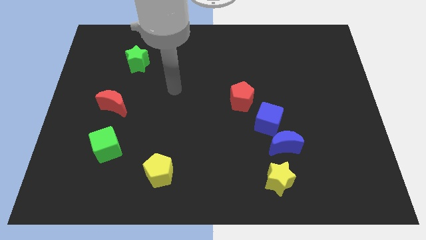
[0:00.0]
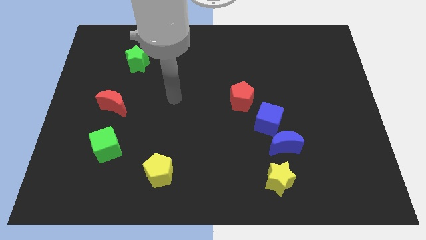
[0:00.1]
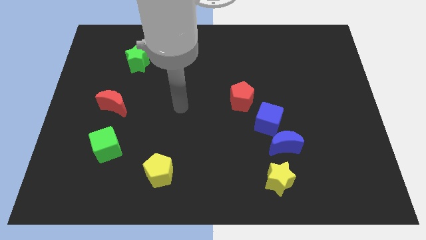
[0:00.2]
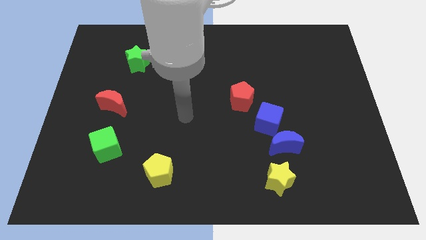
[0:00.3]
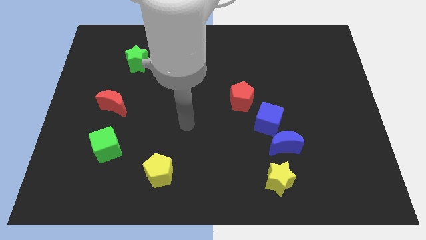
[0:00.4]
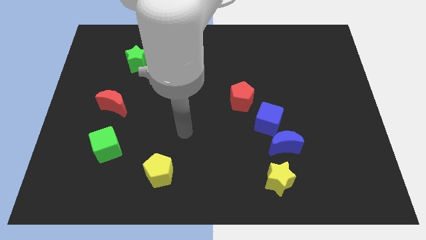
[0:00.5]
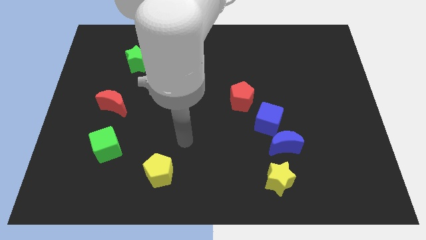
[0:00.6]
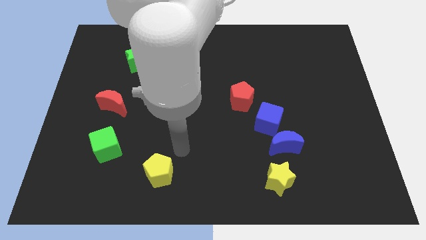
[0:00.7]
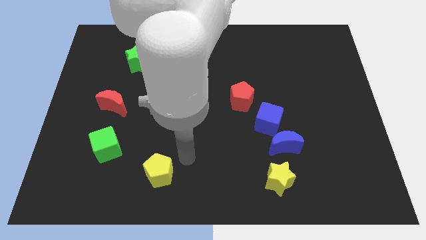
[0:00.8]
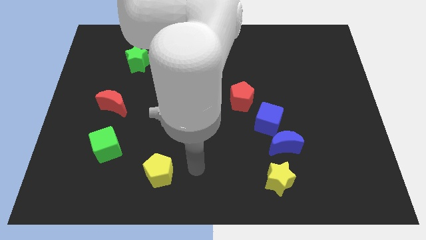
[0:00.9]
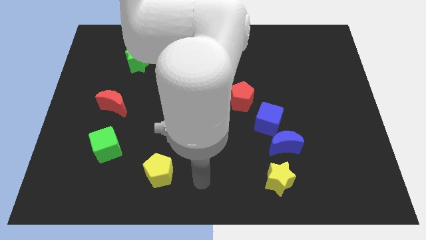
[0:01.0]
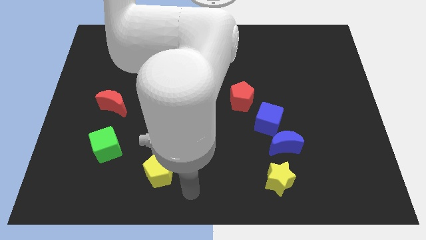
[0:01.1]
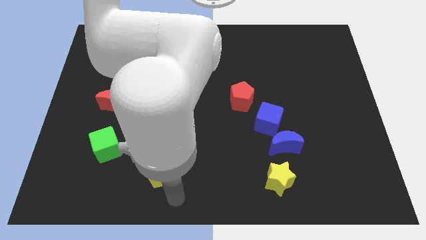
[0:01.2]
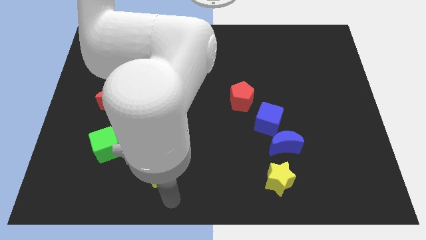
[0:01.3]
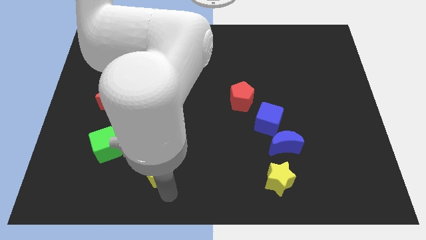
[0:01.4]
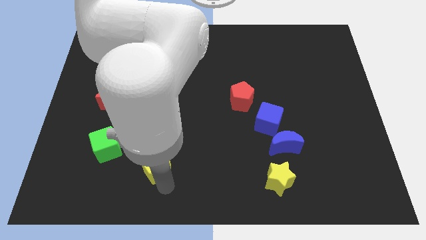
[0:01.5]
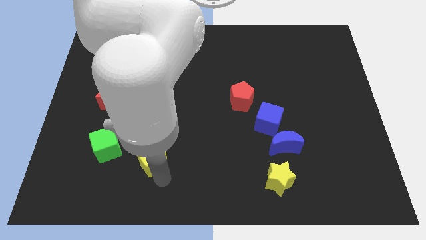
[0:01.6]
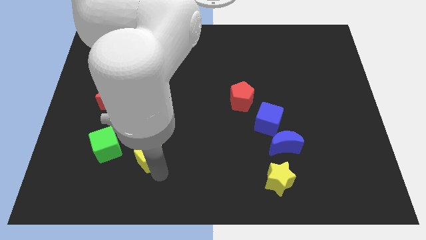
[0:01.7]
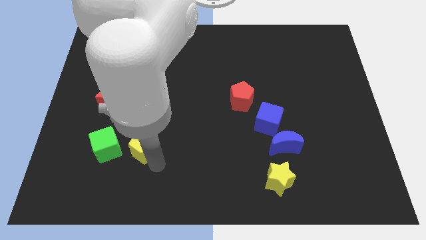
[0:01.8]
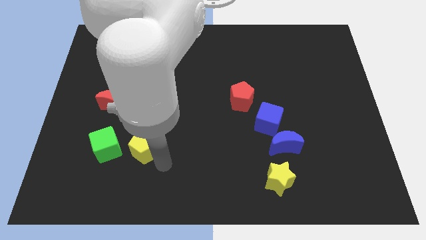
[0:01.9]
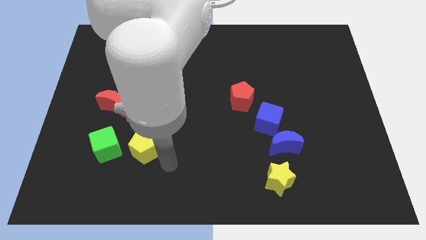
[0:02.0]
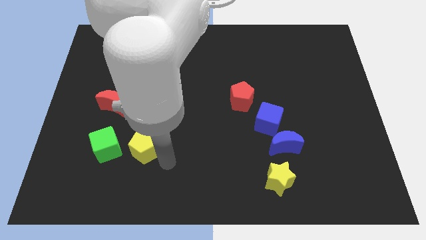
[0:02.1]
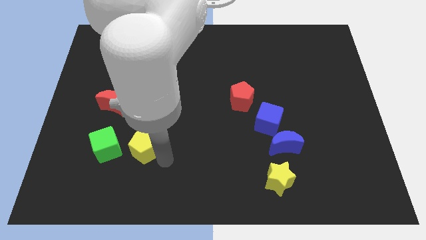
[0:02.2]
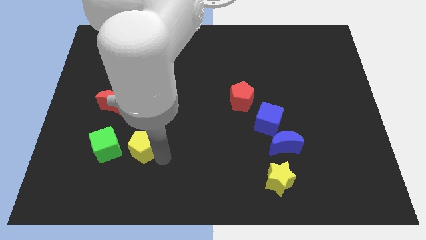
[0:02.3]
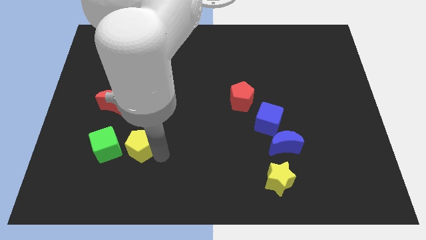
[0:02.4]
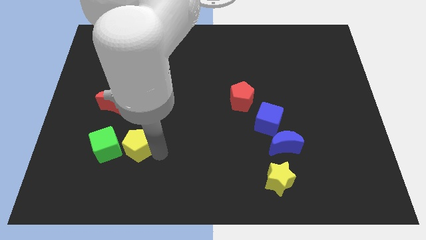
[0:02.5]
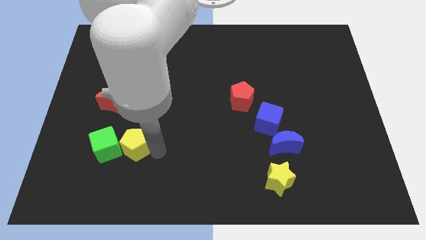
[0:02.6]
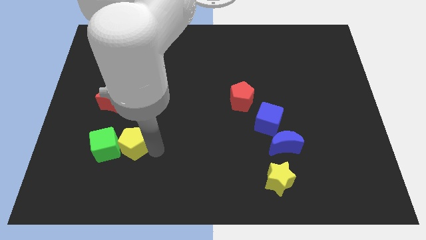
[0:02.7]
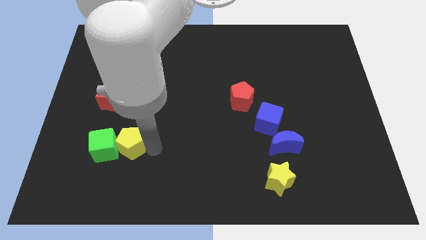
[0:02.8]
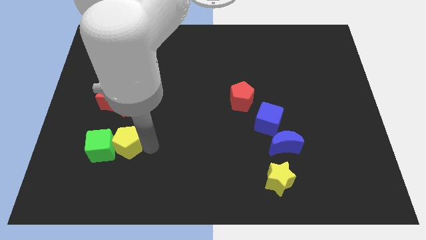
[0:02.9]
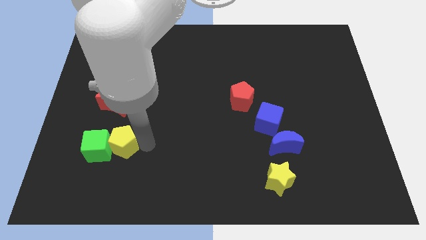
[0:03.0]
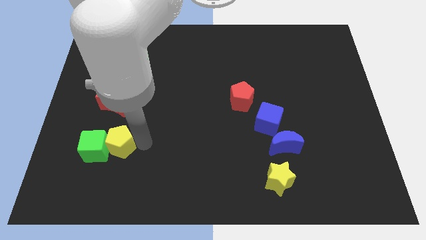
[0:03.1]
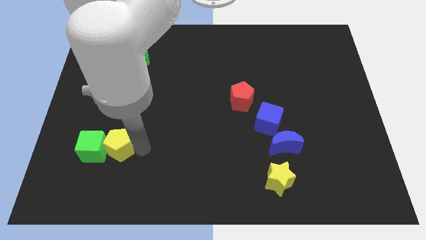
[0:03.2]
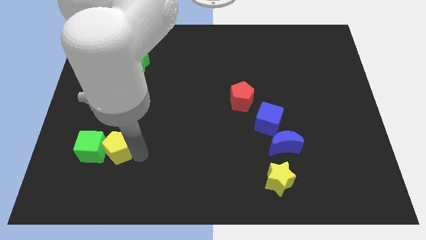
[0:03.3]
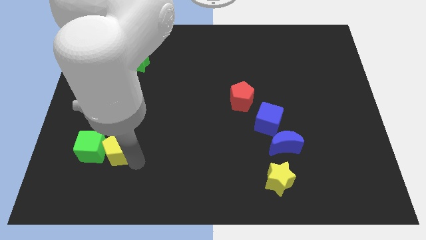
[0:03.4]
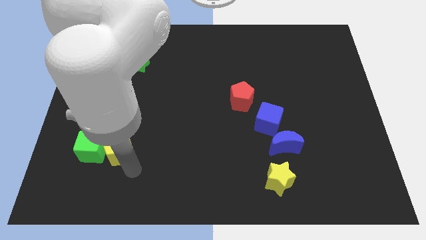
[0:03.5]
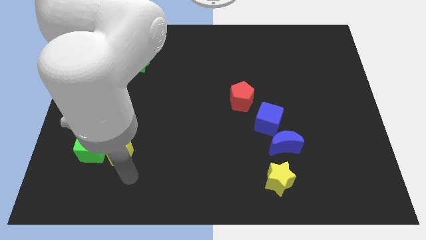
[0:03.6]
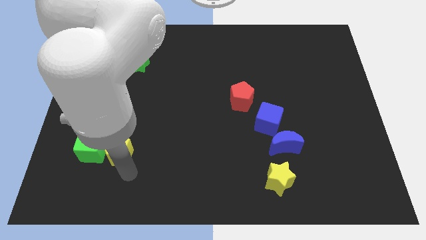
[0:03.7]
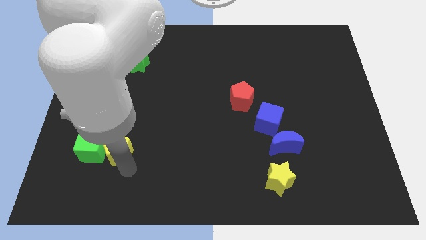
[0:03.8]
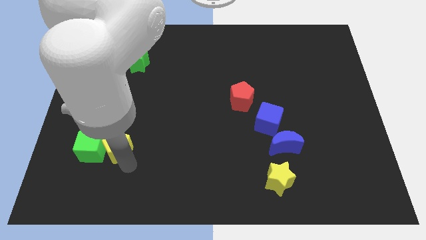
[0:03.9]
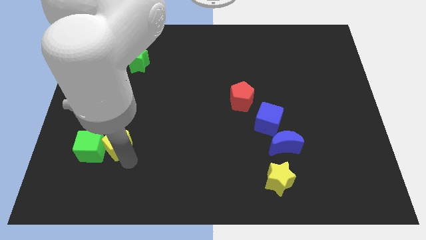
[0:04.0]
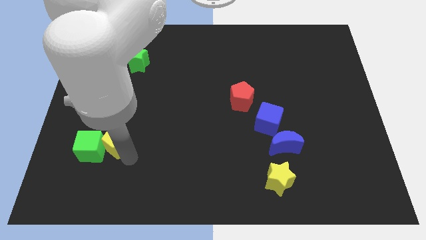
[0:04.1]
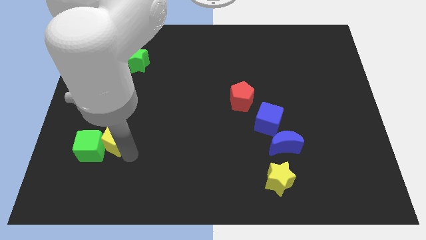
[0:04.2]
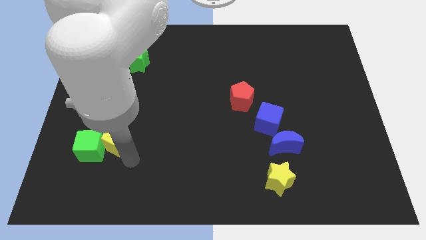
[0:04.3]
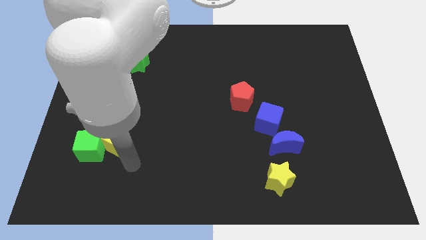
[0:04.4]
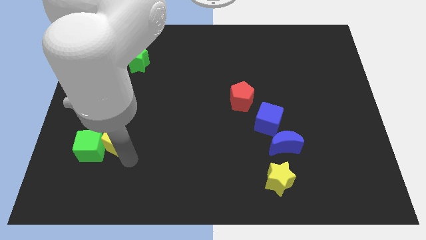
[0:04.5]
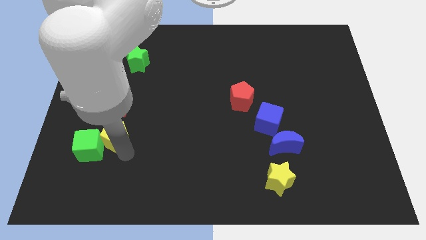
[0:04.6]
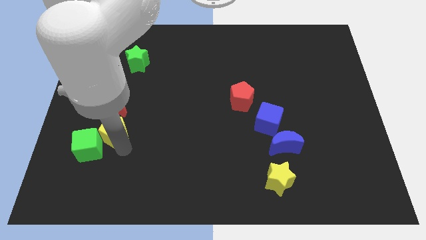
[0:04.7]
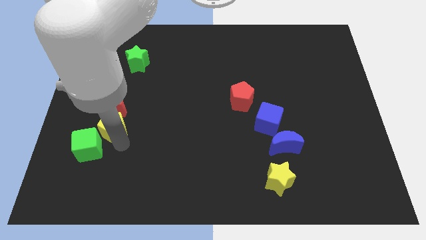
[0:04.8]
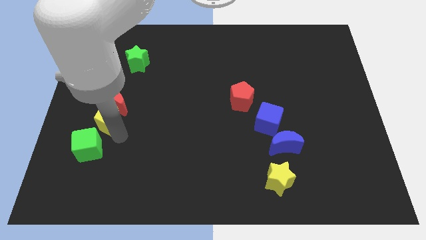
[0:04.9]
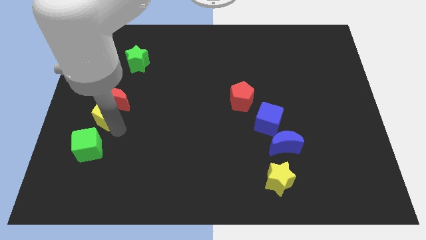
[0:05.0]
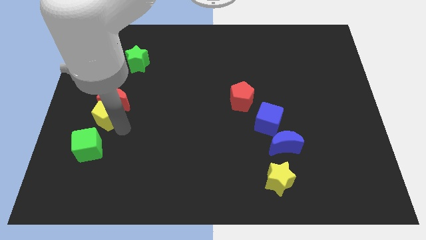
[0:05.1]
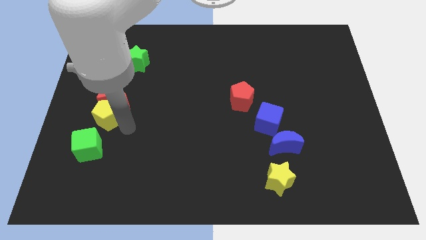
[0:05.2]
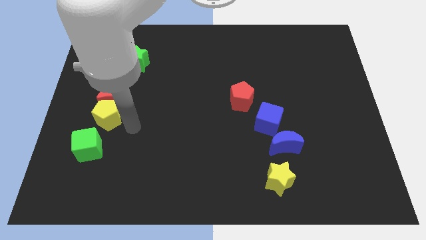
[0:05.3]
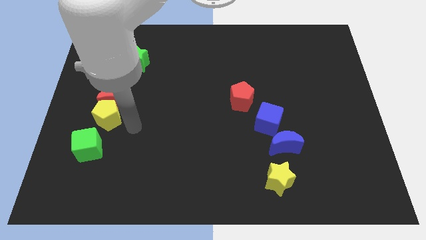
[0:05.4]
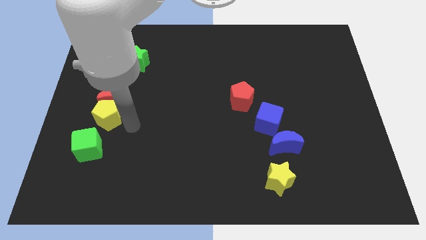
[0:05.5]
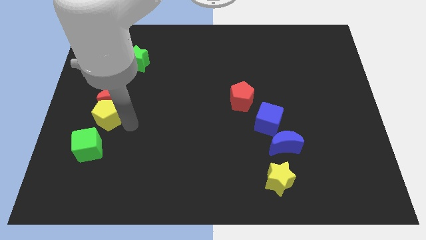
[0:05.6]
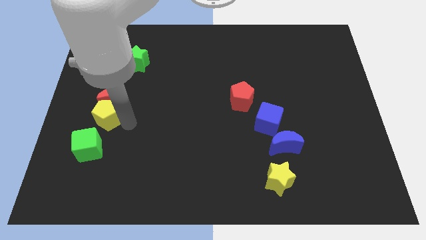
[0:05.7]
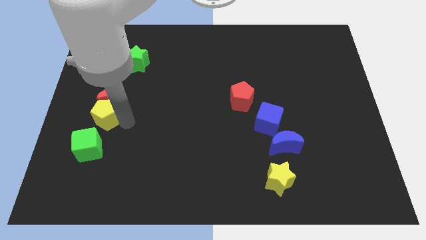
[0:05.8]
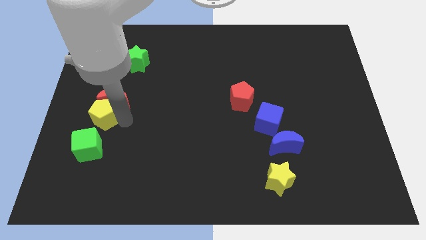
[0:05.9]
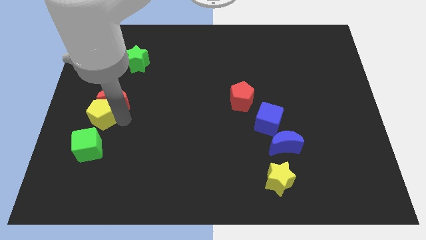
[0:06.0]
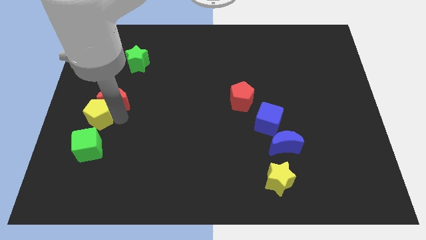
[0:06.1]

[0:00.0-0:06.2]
slide the yellow pentagon to the left side of the board
